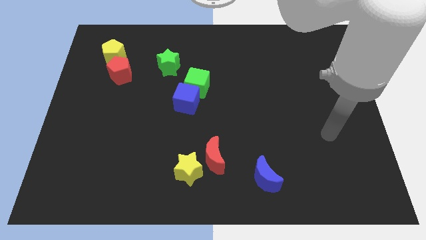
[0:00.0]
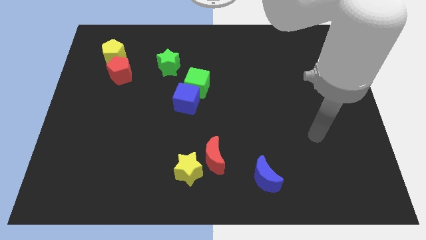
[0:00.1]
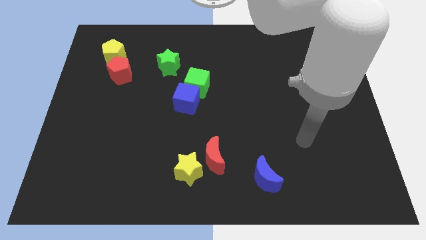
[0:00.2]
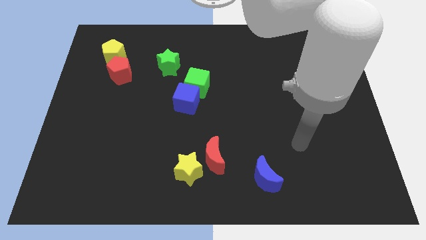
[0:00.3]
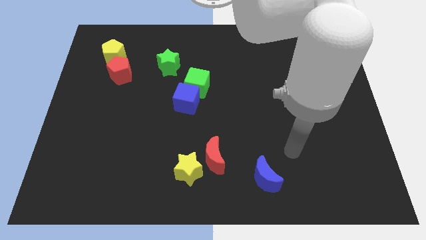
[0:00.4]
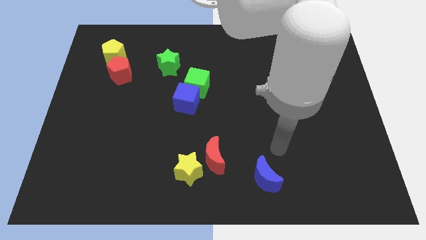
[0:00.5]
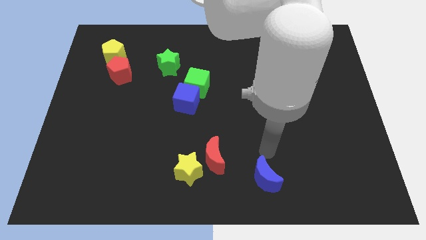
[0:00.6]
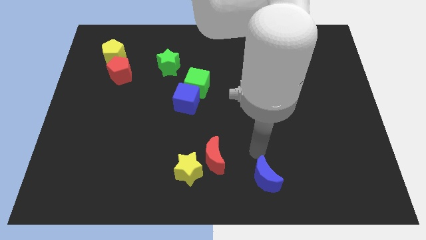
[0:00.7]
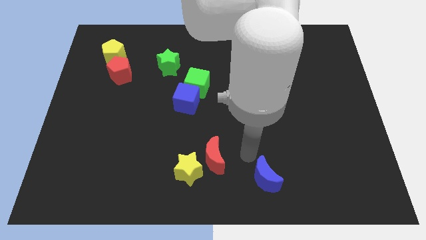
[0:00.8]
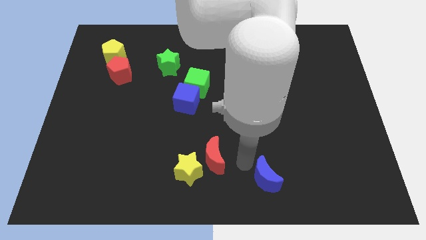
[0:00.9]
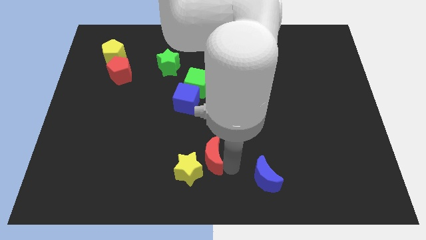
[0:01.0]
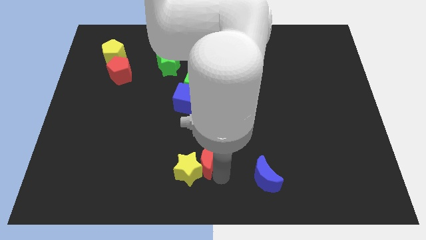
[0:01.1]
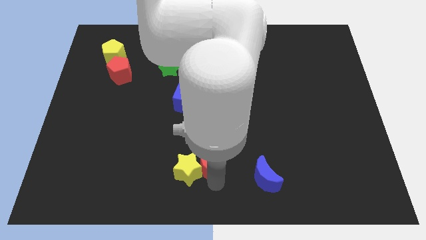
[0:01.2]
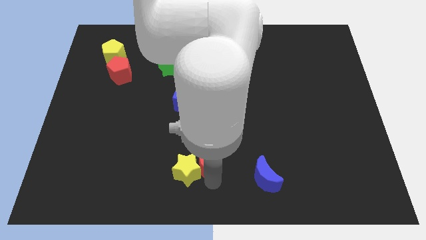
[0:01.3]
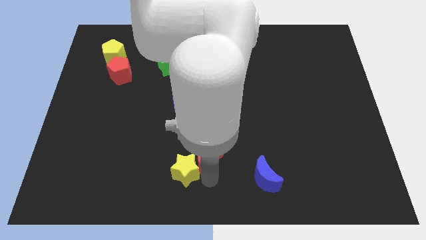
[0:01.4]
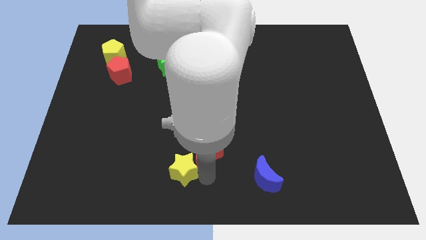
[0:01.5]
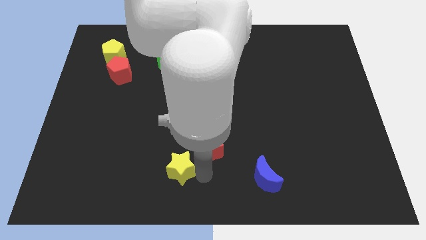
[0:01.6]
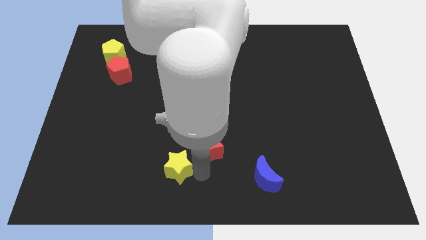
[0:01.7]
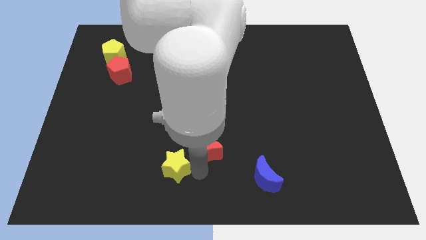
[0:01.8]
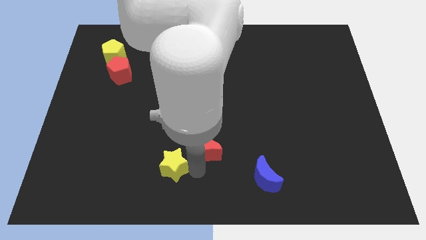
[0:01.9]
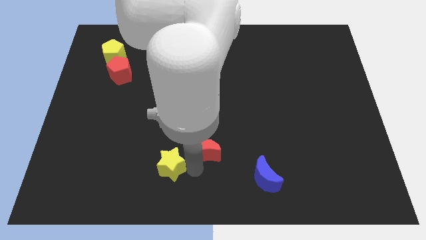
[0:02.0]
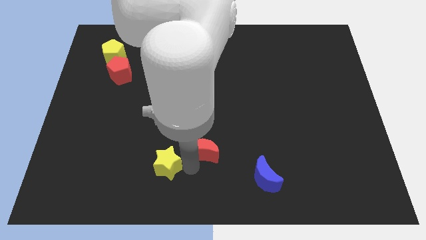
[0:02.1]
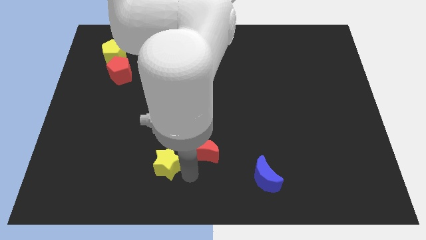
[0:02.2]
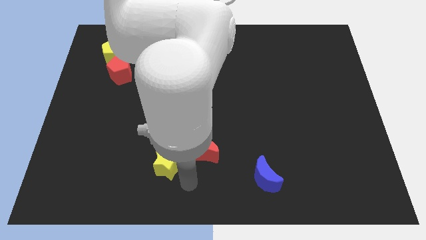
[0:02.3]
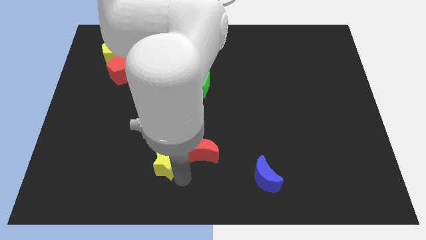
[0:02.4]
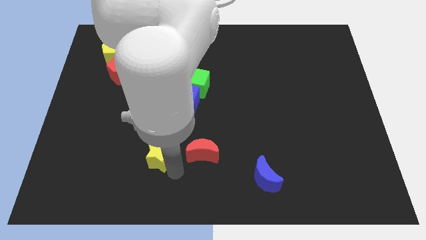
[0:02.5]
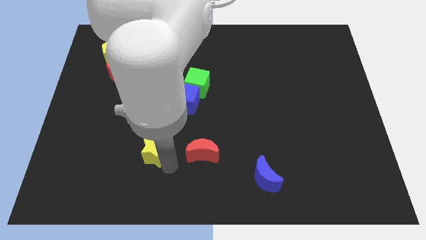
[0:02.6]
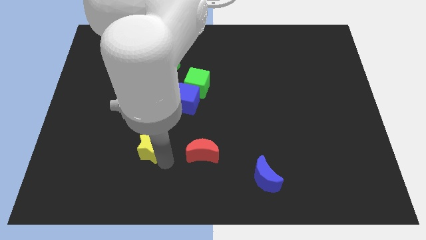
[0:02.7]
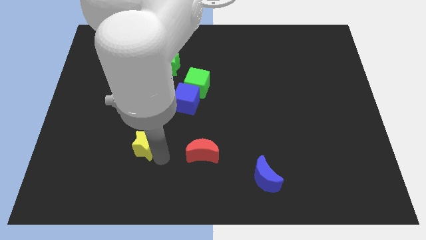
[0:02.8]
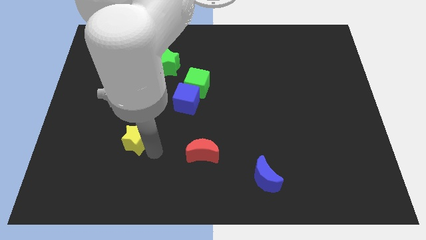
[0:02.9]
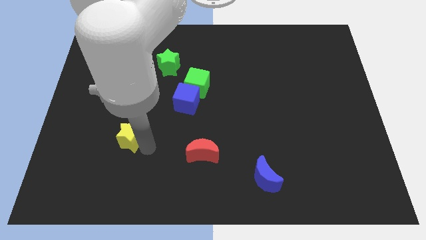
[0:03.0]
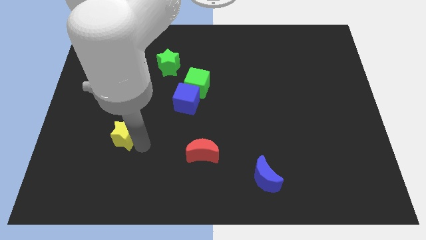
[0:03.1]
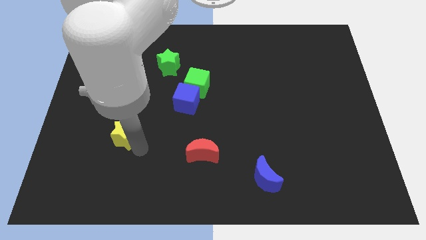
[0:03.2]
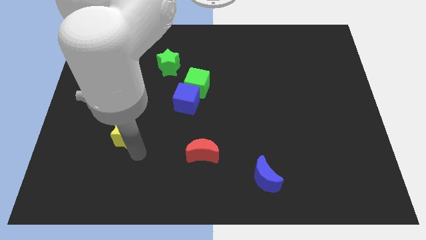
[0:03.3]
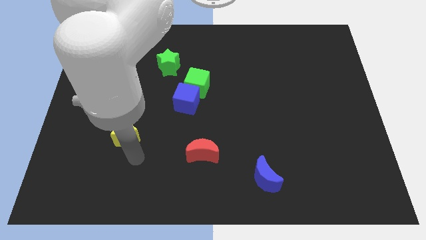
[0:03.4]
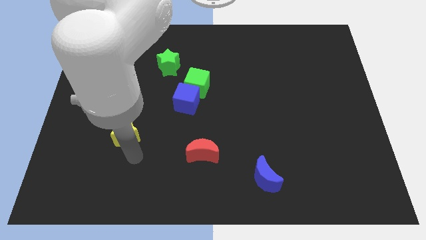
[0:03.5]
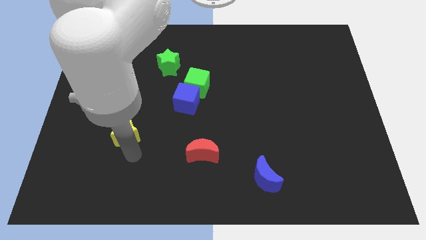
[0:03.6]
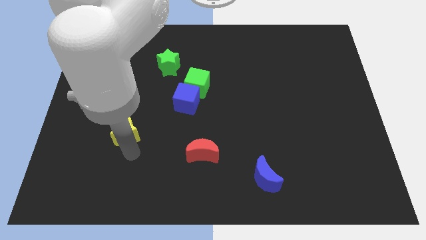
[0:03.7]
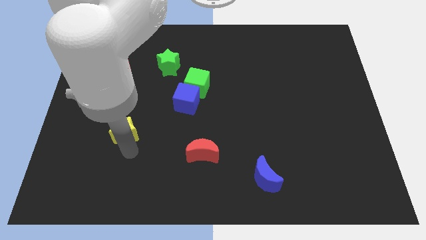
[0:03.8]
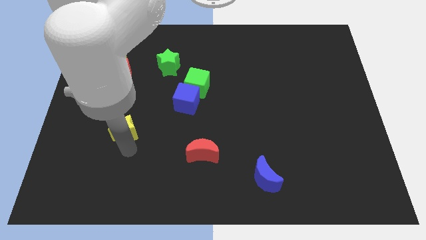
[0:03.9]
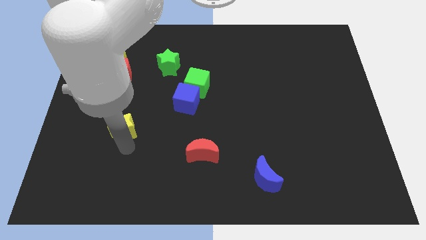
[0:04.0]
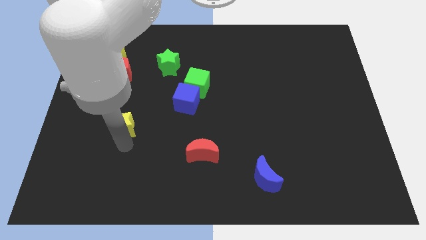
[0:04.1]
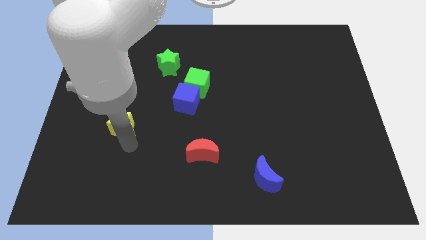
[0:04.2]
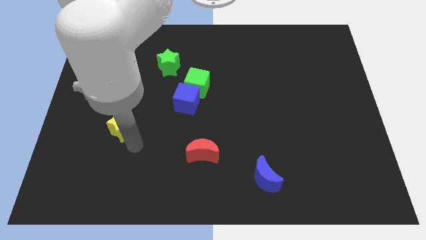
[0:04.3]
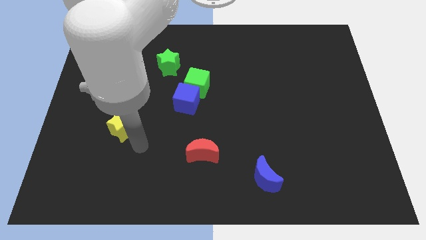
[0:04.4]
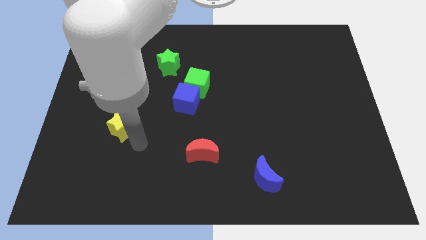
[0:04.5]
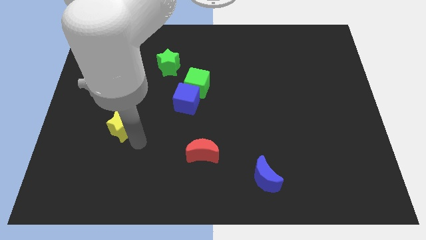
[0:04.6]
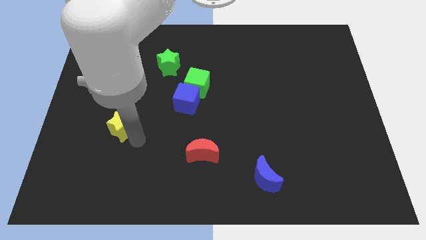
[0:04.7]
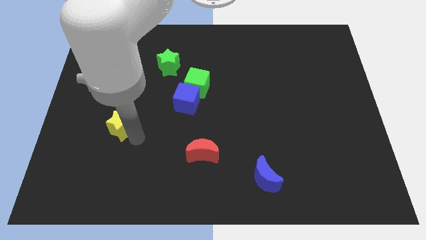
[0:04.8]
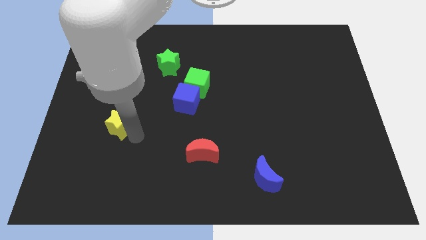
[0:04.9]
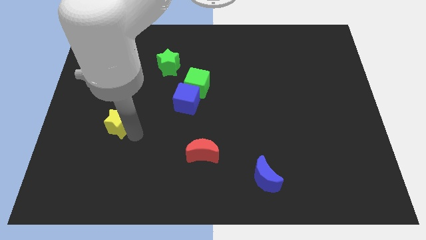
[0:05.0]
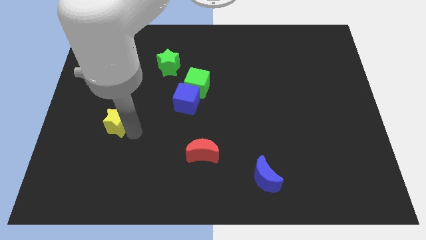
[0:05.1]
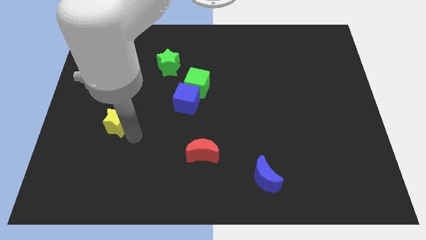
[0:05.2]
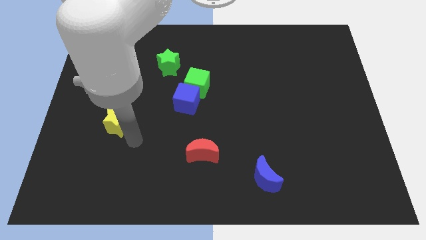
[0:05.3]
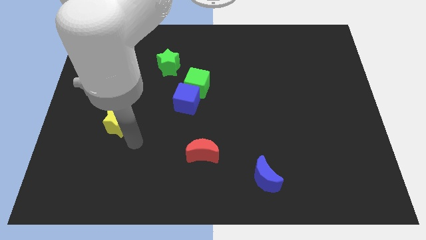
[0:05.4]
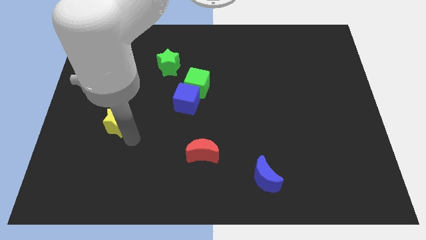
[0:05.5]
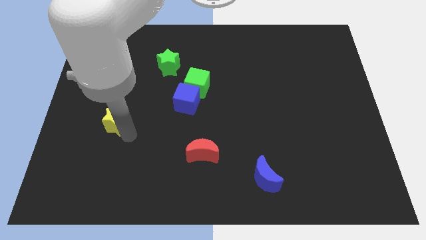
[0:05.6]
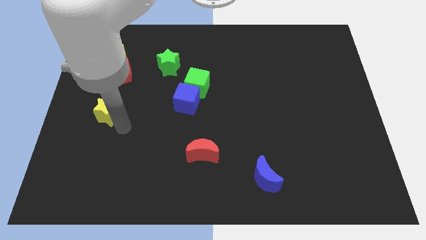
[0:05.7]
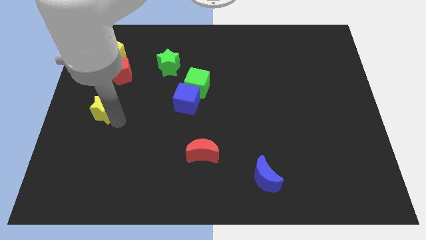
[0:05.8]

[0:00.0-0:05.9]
put the yellow star to the left side of the board
